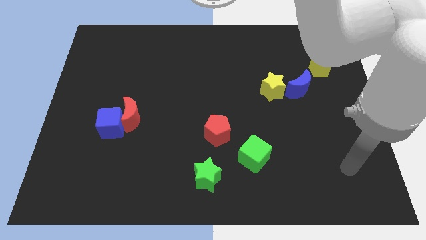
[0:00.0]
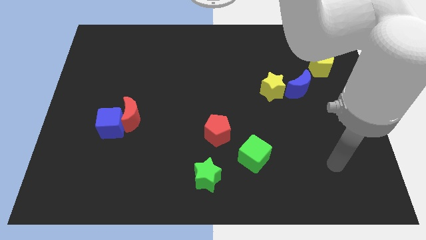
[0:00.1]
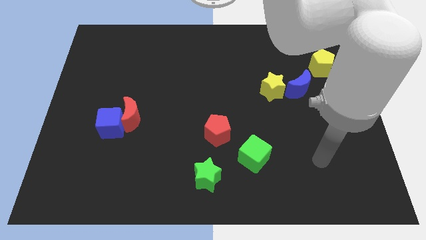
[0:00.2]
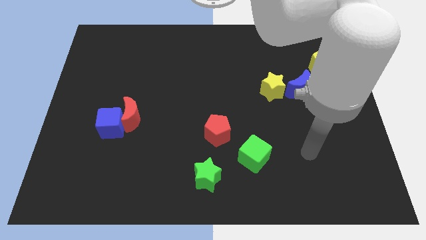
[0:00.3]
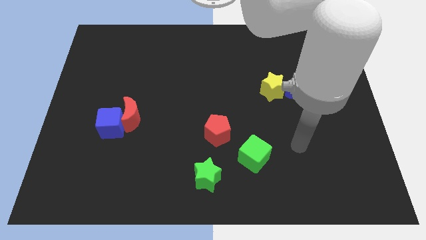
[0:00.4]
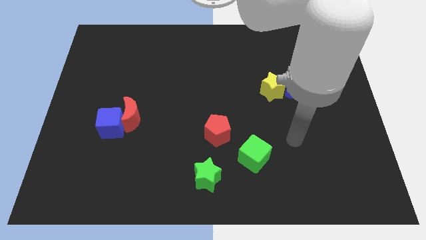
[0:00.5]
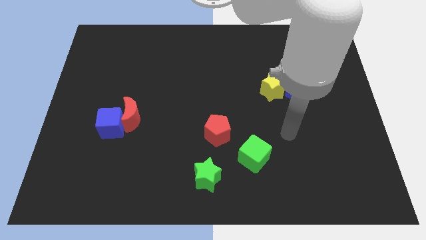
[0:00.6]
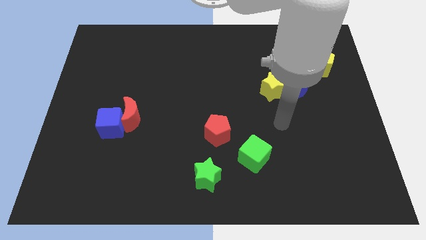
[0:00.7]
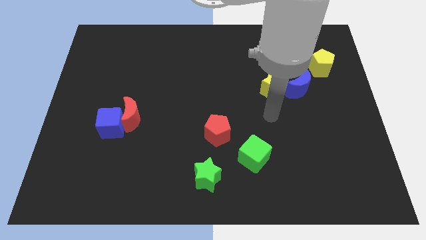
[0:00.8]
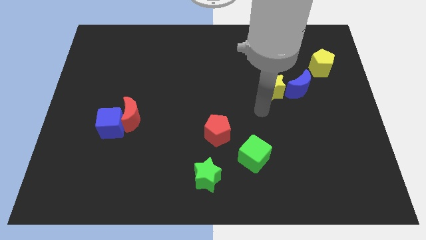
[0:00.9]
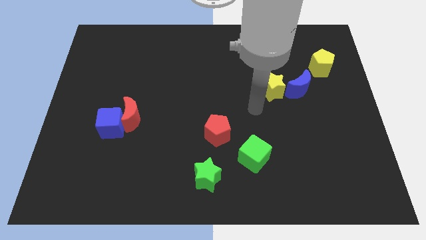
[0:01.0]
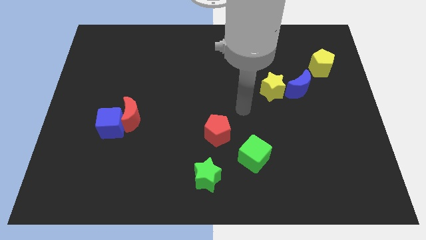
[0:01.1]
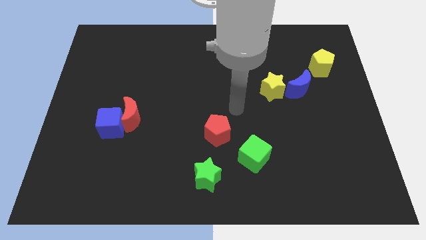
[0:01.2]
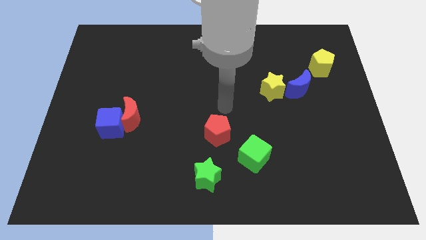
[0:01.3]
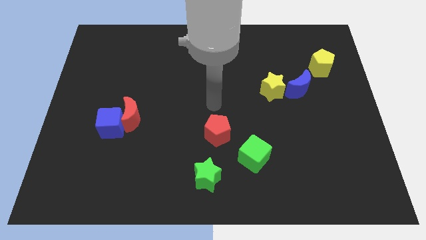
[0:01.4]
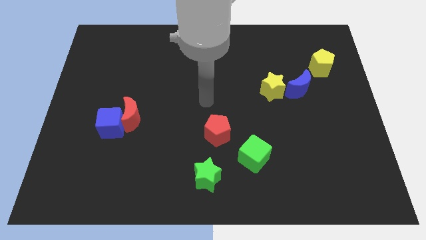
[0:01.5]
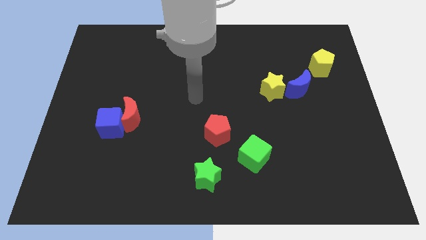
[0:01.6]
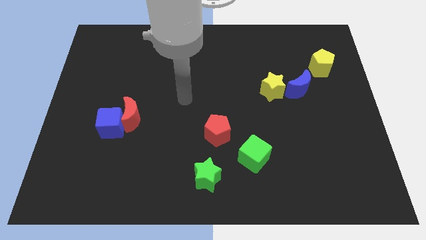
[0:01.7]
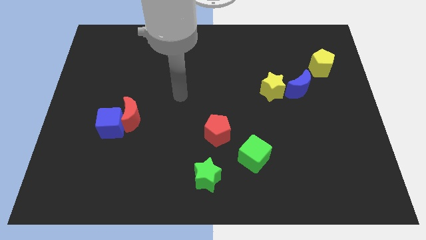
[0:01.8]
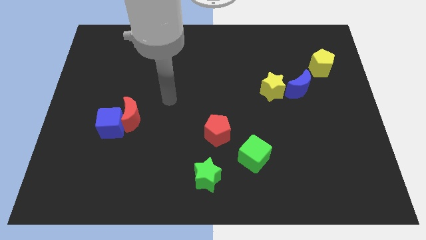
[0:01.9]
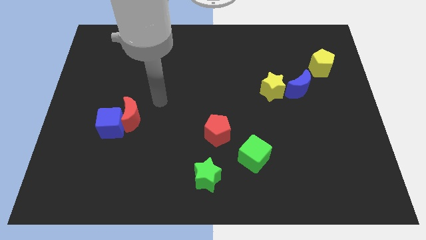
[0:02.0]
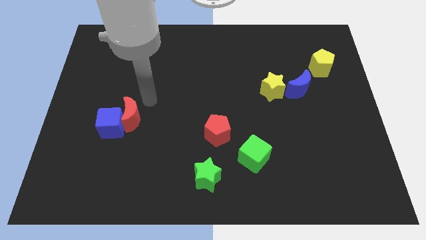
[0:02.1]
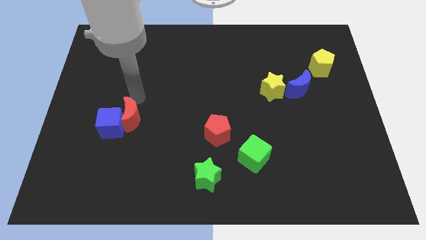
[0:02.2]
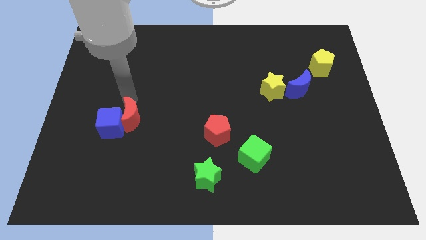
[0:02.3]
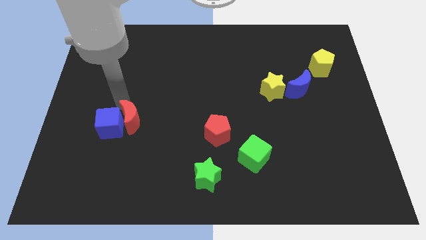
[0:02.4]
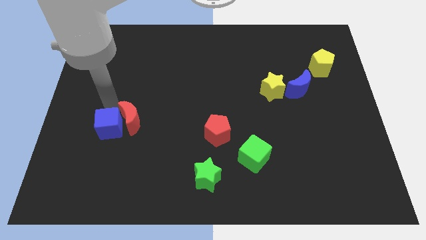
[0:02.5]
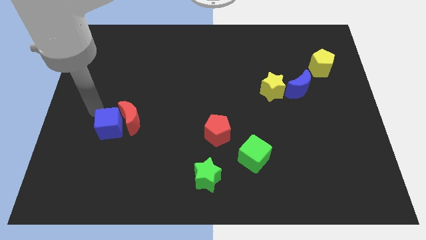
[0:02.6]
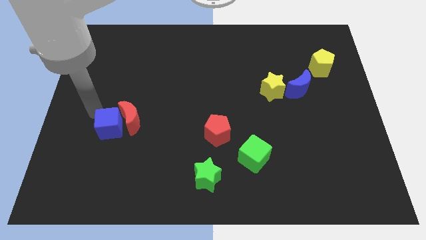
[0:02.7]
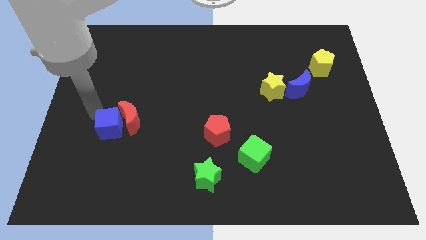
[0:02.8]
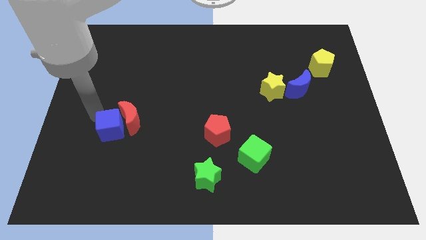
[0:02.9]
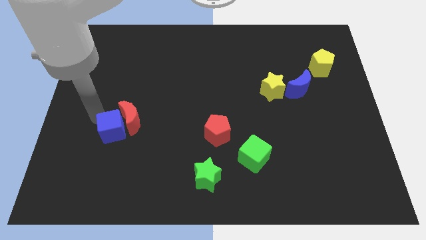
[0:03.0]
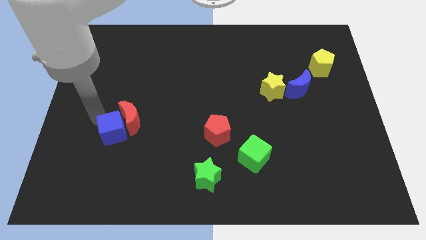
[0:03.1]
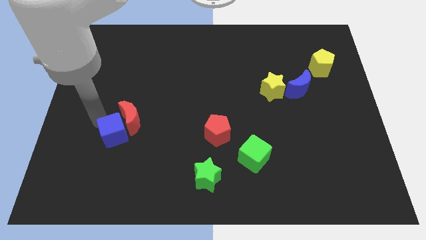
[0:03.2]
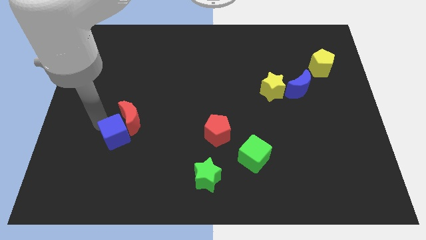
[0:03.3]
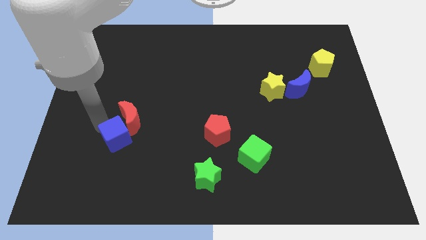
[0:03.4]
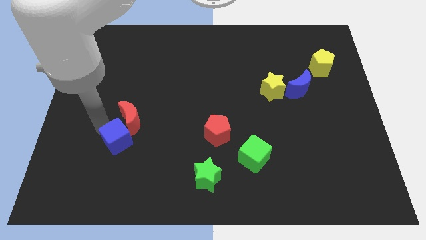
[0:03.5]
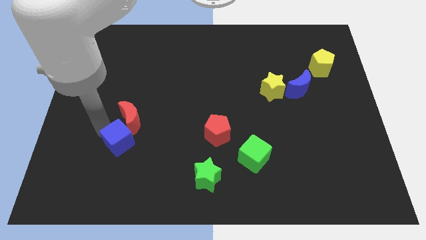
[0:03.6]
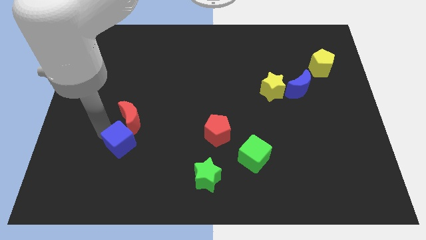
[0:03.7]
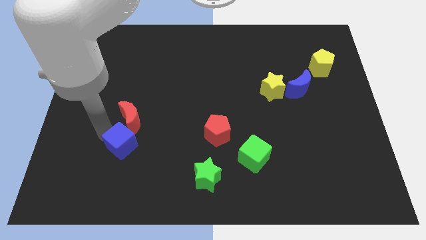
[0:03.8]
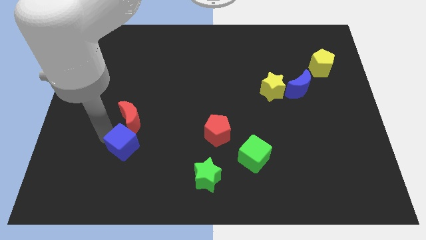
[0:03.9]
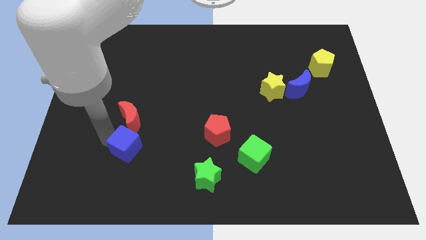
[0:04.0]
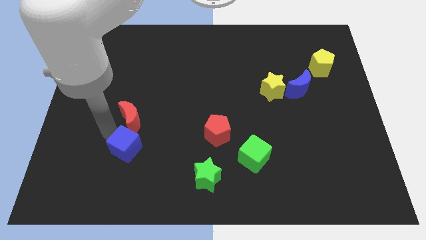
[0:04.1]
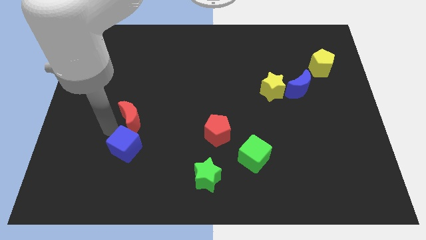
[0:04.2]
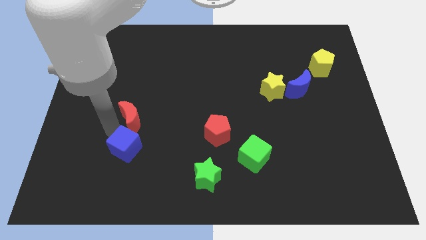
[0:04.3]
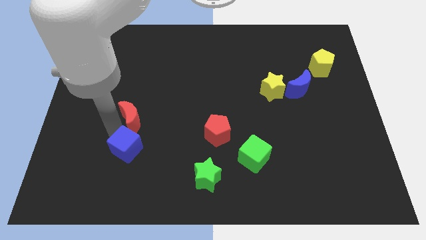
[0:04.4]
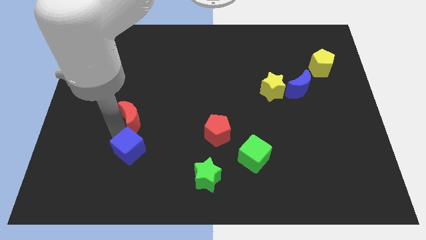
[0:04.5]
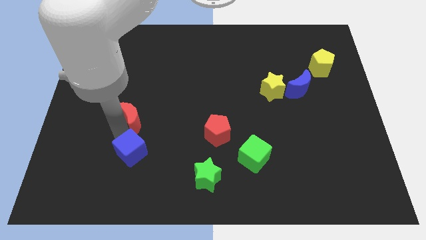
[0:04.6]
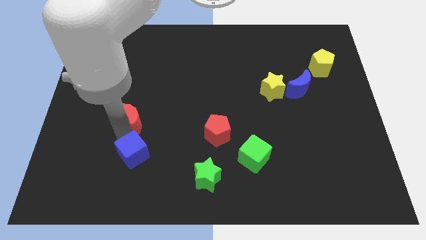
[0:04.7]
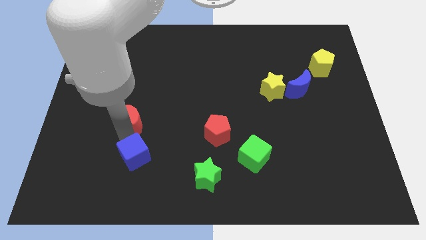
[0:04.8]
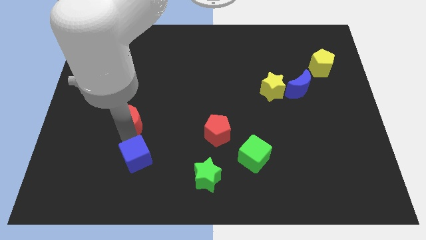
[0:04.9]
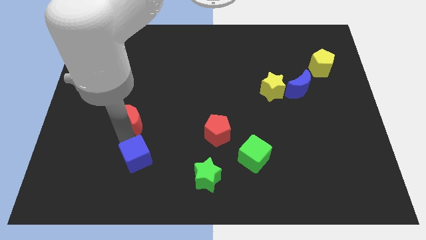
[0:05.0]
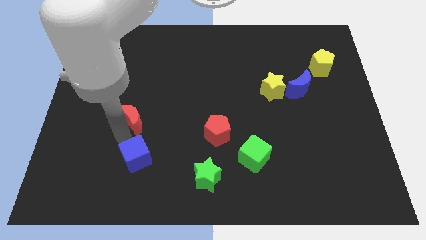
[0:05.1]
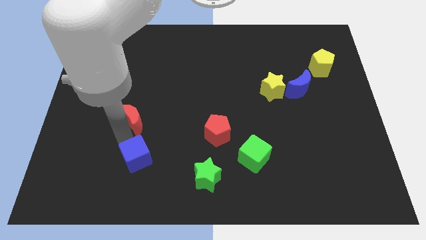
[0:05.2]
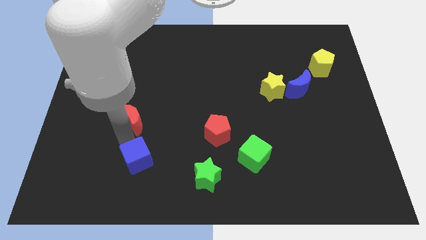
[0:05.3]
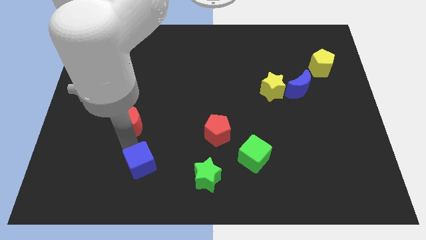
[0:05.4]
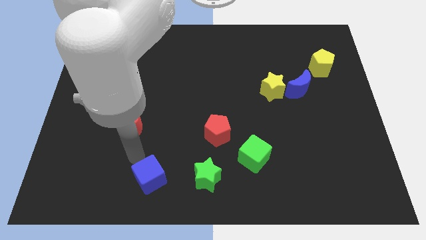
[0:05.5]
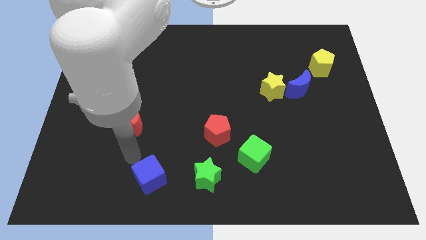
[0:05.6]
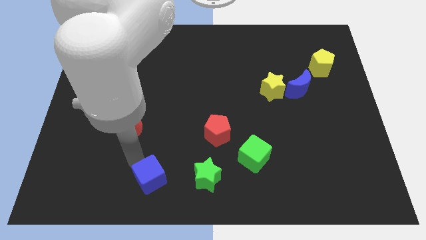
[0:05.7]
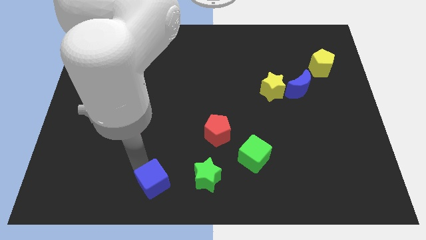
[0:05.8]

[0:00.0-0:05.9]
push the blue cube to the bottom

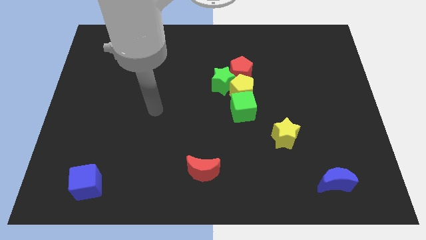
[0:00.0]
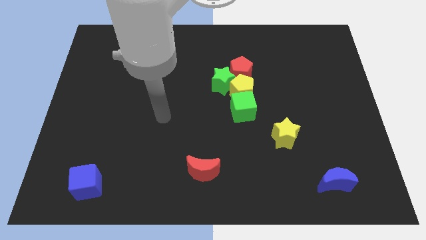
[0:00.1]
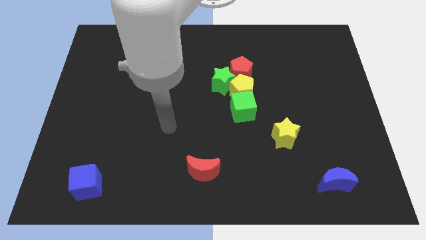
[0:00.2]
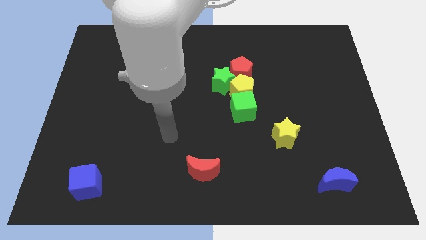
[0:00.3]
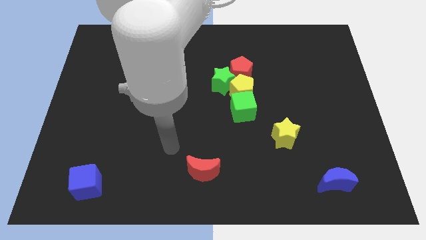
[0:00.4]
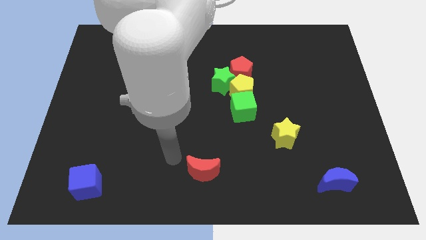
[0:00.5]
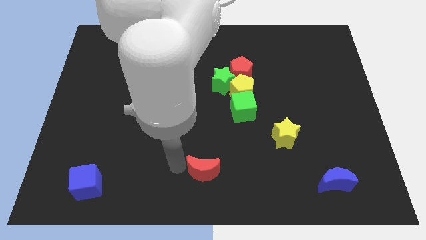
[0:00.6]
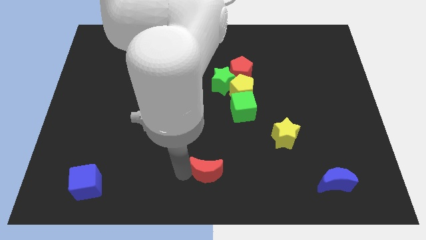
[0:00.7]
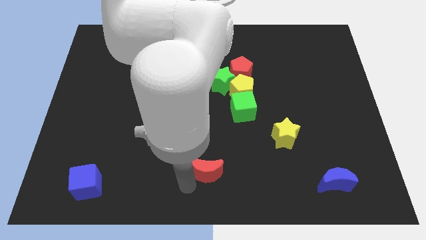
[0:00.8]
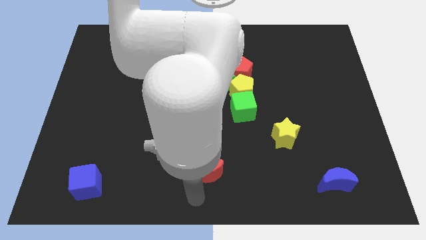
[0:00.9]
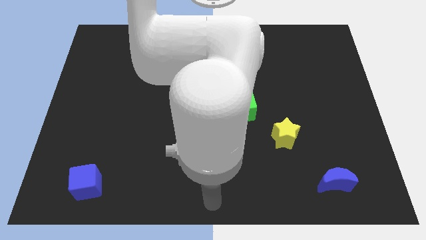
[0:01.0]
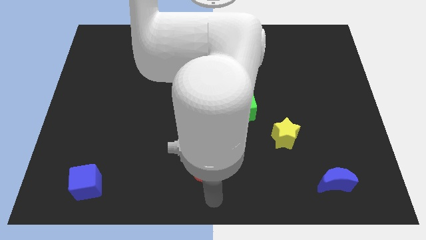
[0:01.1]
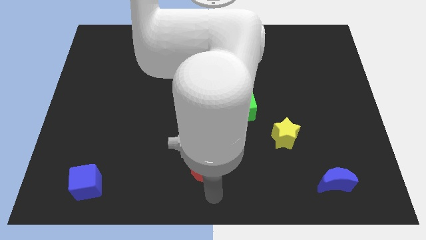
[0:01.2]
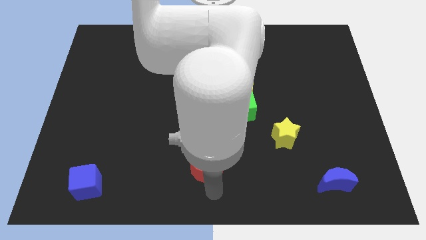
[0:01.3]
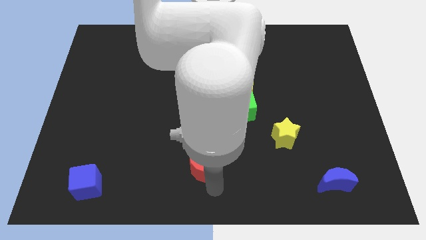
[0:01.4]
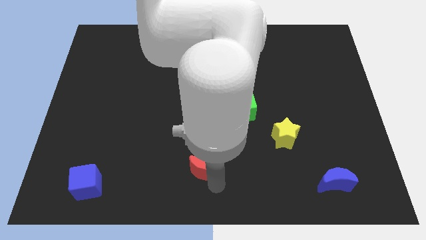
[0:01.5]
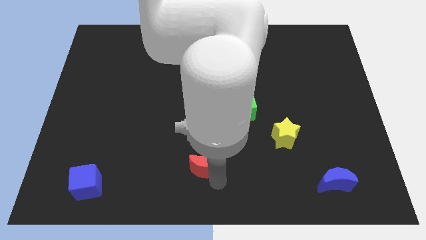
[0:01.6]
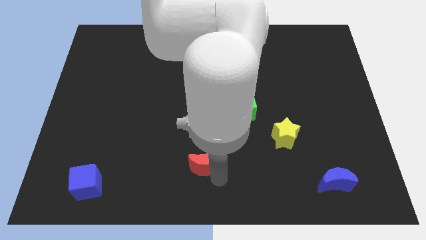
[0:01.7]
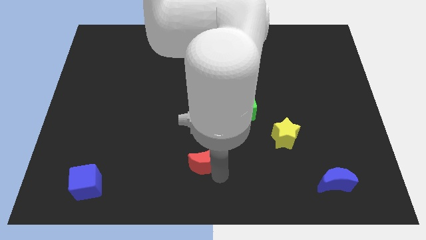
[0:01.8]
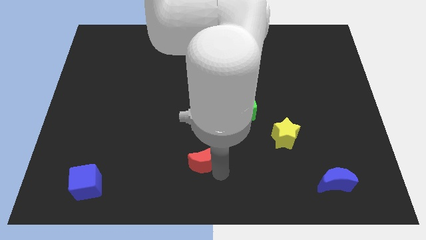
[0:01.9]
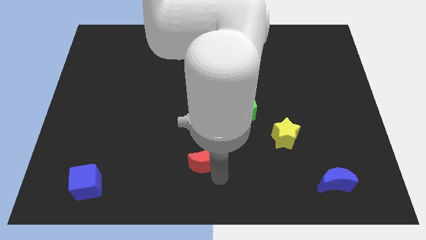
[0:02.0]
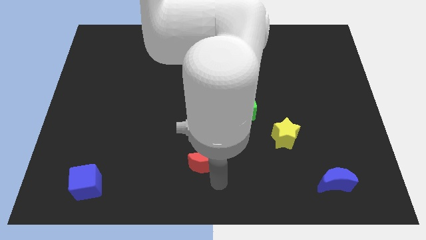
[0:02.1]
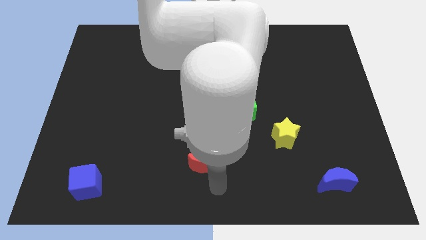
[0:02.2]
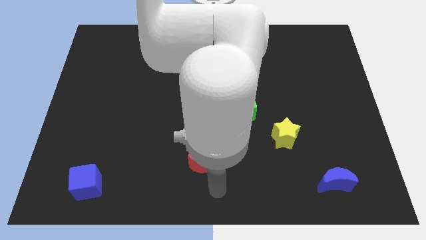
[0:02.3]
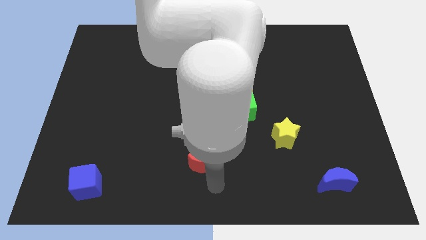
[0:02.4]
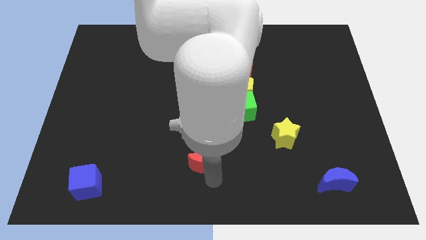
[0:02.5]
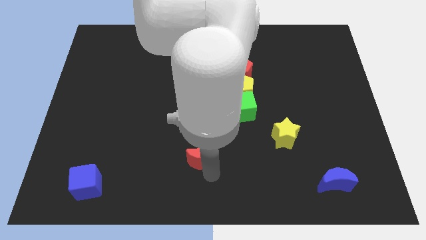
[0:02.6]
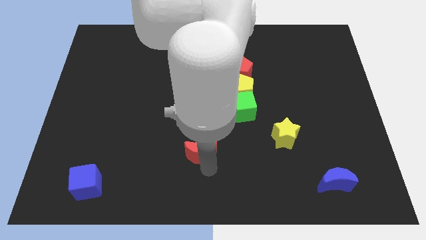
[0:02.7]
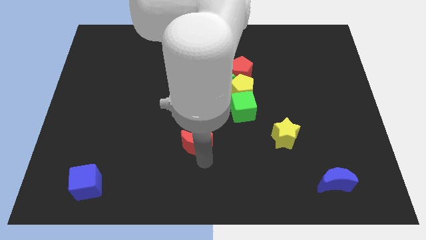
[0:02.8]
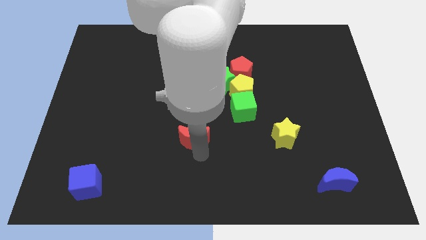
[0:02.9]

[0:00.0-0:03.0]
put the red moon to the middle of the board
